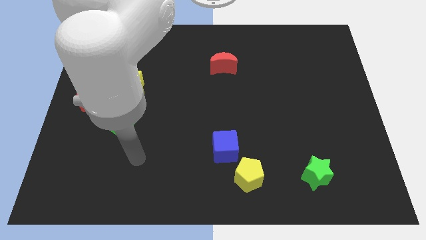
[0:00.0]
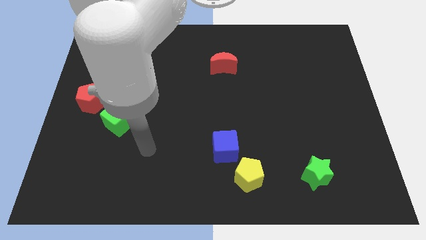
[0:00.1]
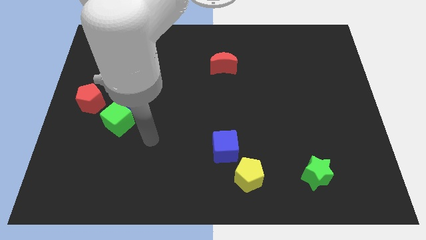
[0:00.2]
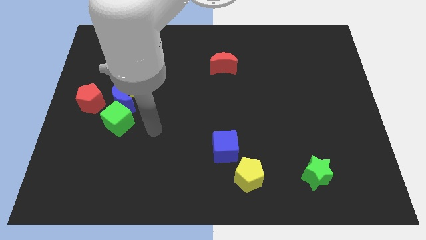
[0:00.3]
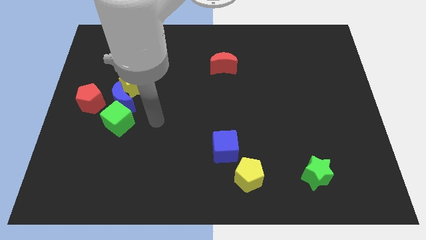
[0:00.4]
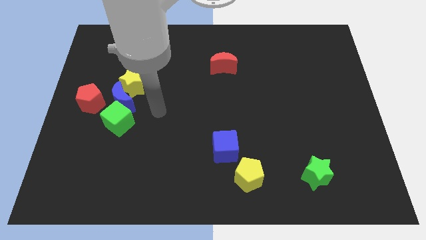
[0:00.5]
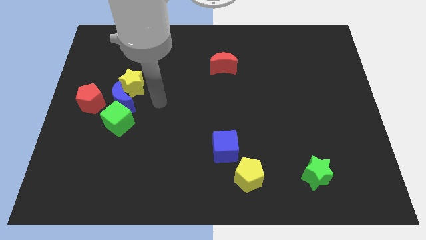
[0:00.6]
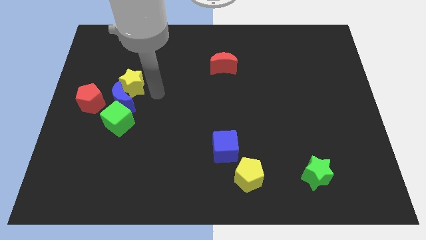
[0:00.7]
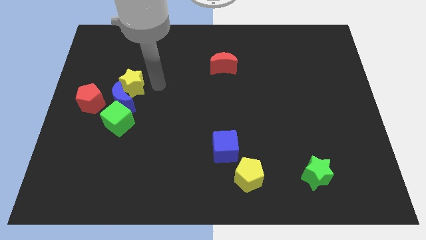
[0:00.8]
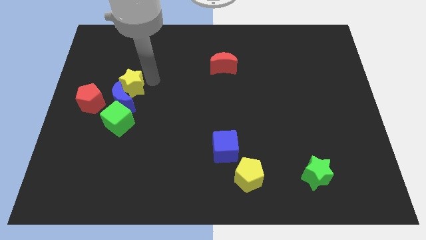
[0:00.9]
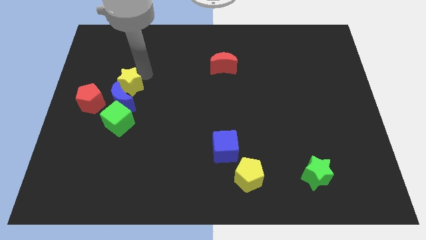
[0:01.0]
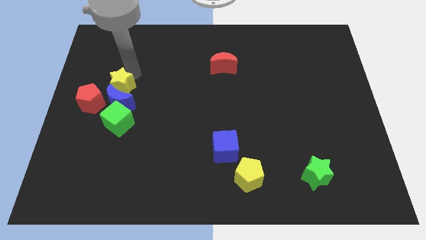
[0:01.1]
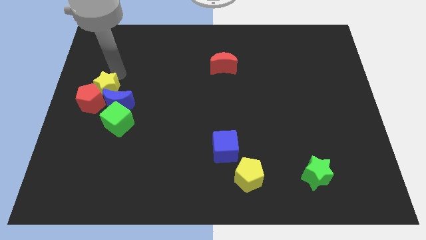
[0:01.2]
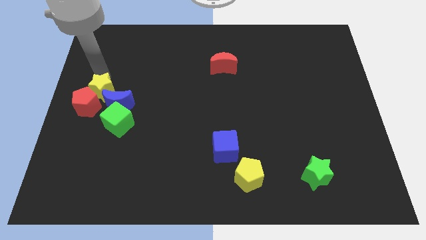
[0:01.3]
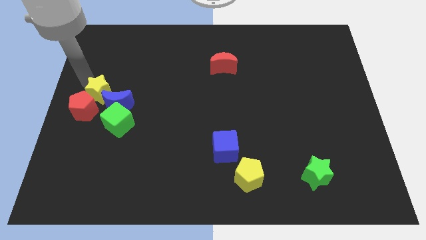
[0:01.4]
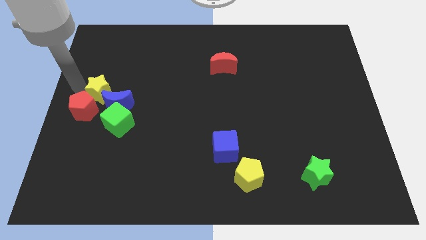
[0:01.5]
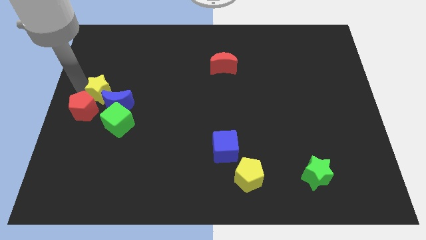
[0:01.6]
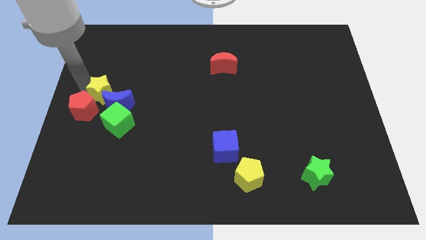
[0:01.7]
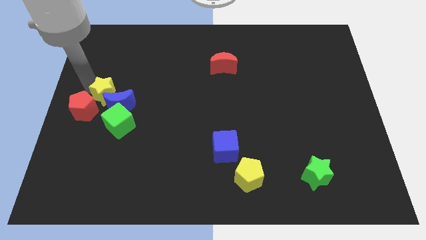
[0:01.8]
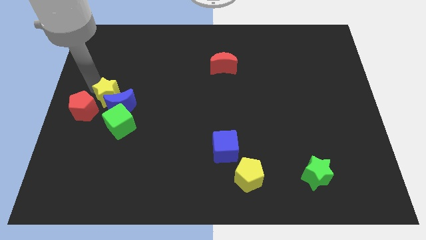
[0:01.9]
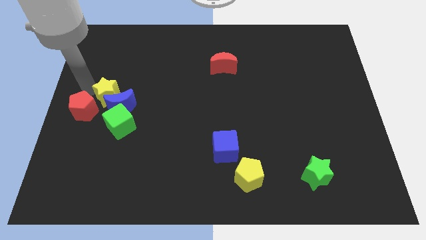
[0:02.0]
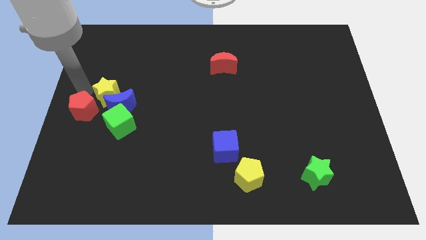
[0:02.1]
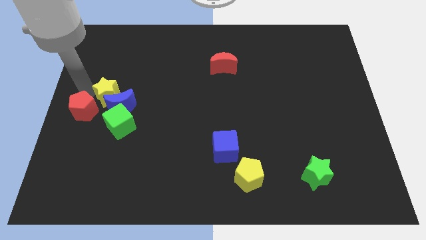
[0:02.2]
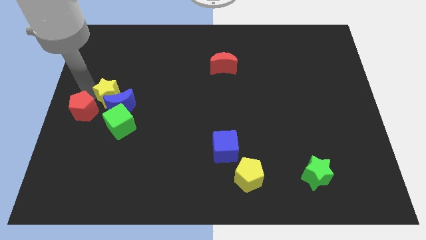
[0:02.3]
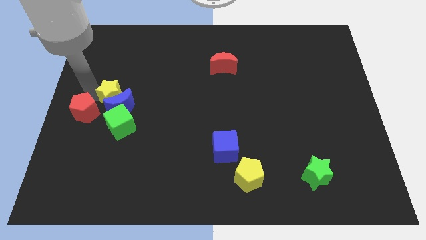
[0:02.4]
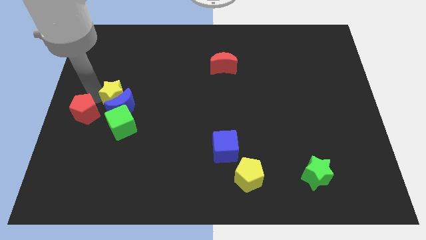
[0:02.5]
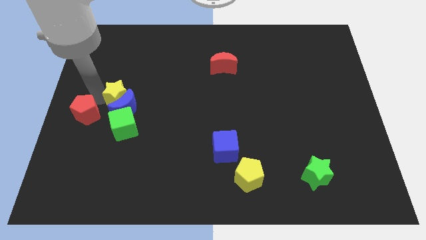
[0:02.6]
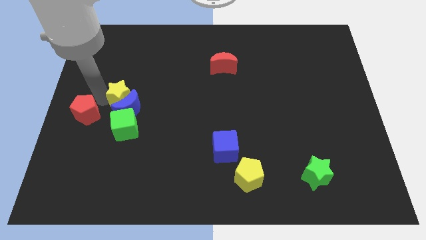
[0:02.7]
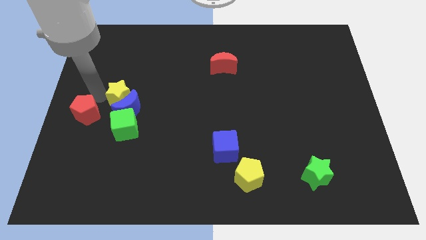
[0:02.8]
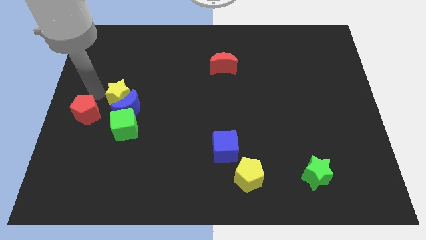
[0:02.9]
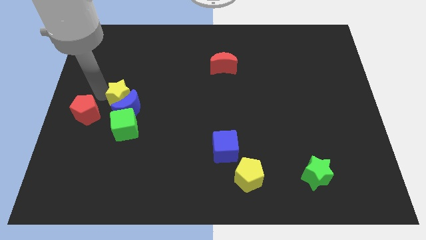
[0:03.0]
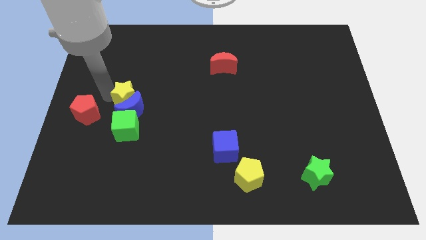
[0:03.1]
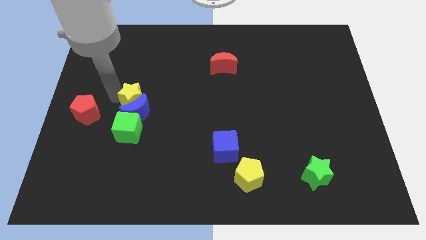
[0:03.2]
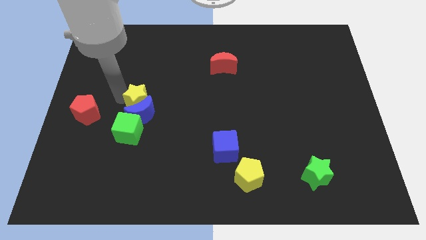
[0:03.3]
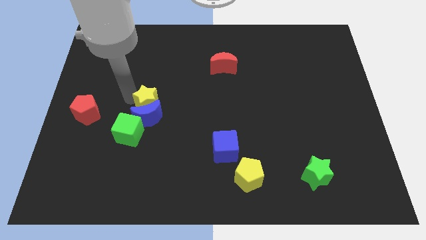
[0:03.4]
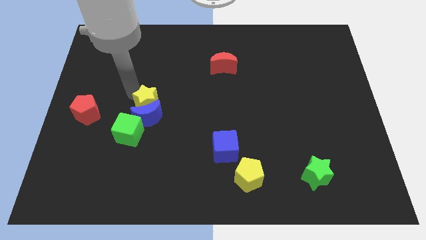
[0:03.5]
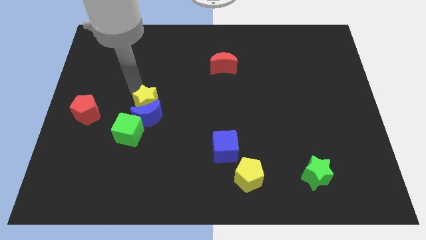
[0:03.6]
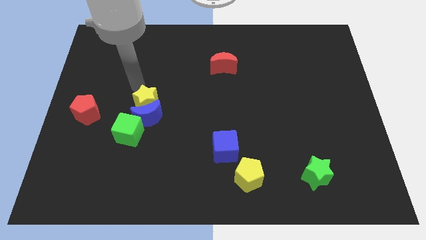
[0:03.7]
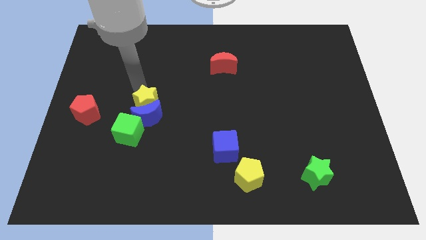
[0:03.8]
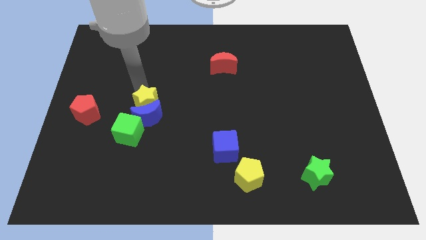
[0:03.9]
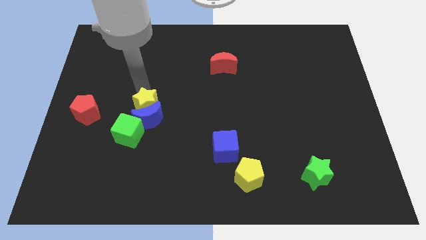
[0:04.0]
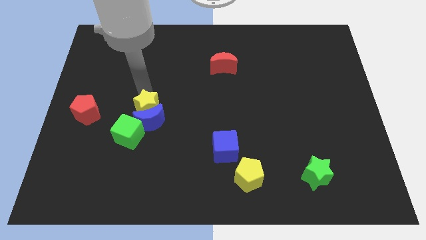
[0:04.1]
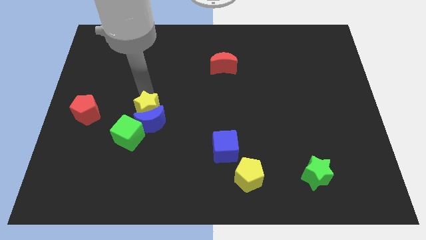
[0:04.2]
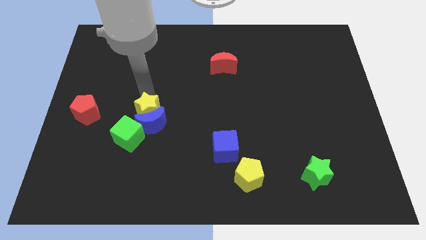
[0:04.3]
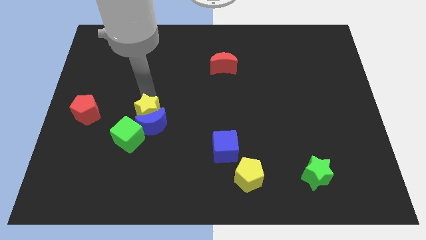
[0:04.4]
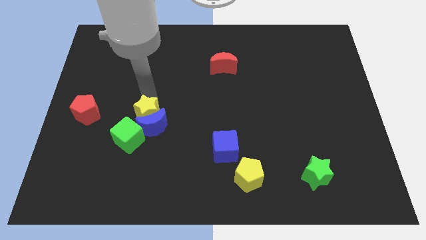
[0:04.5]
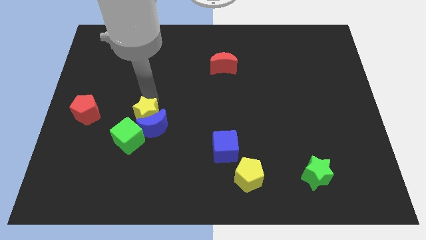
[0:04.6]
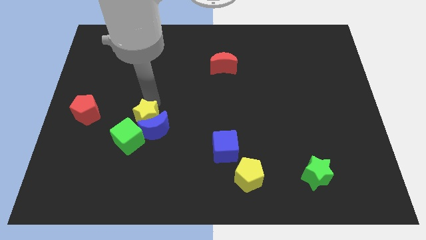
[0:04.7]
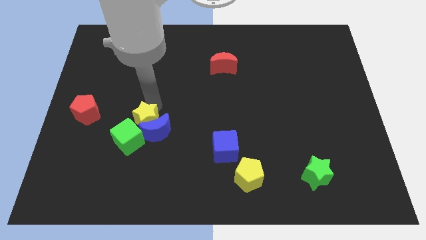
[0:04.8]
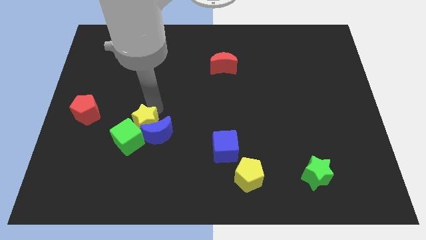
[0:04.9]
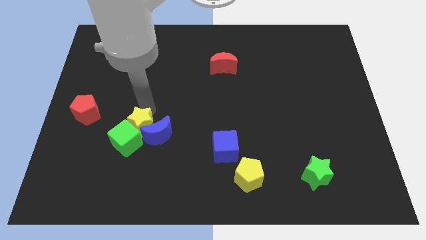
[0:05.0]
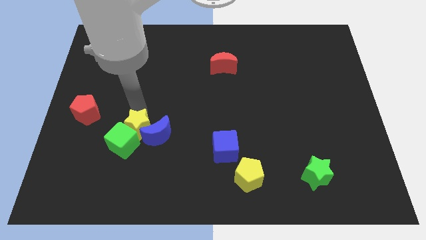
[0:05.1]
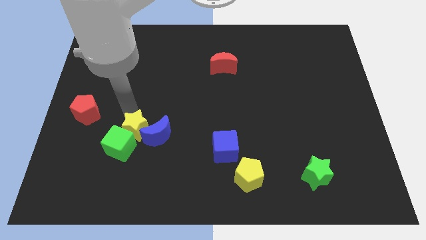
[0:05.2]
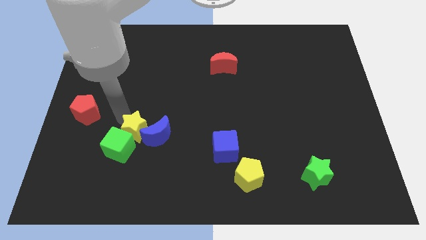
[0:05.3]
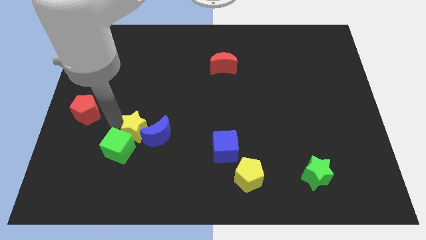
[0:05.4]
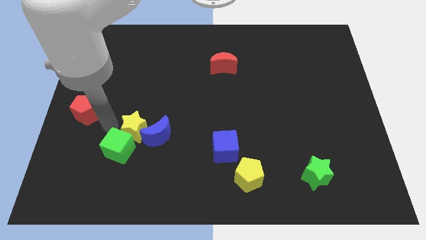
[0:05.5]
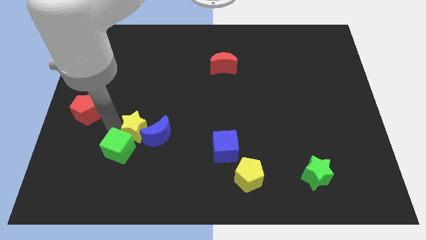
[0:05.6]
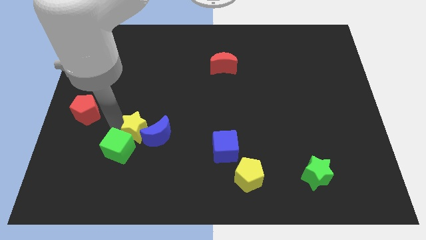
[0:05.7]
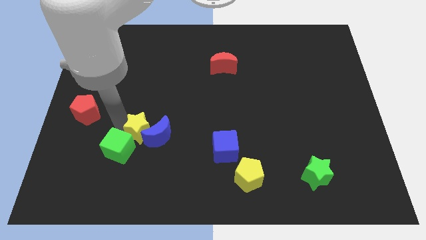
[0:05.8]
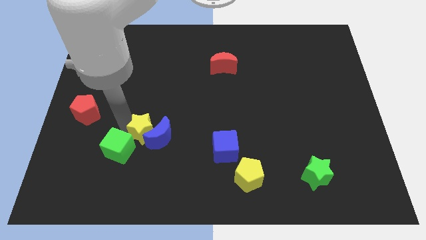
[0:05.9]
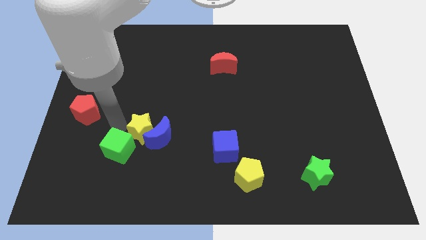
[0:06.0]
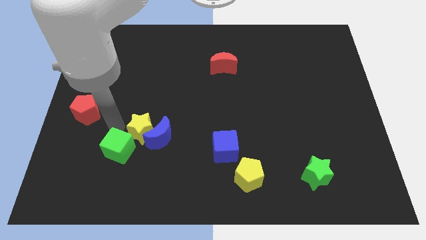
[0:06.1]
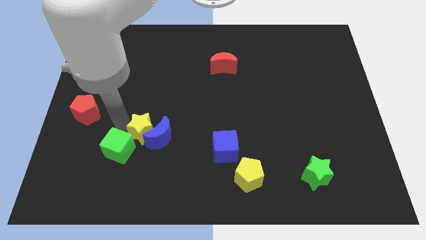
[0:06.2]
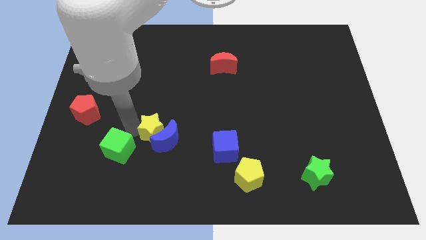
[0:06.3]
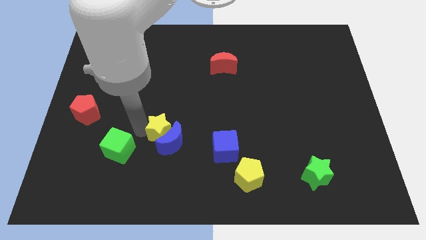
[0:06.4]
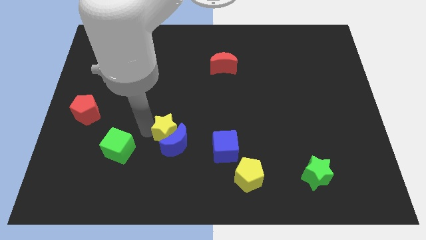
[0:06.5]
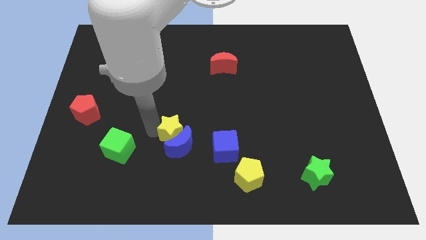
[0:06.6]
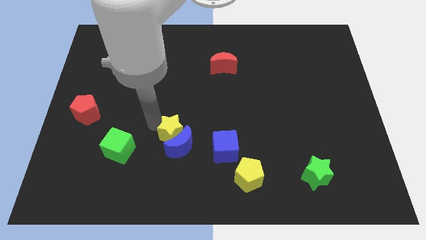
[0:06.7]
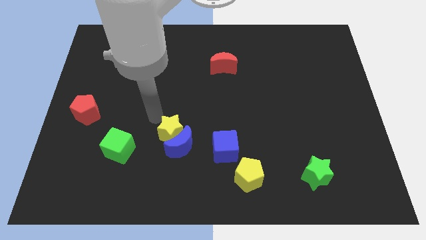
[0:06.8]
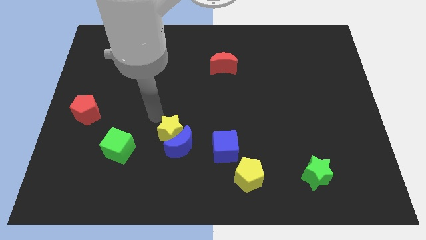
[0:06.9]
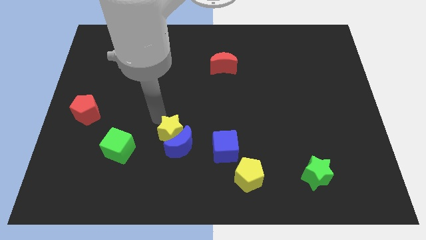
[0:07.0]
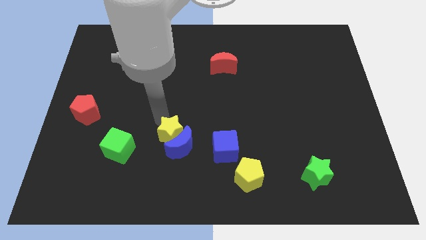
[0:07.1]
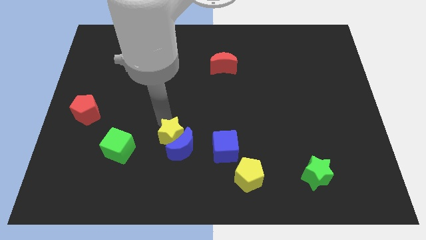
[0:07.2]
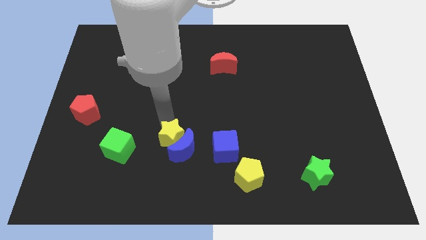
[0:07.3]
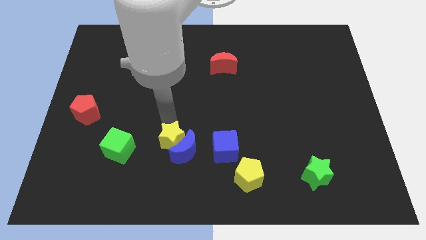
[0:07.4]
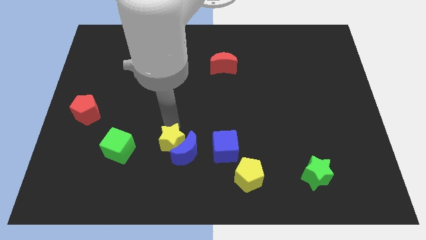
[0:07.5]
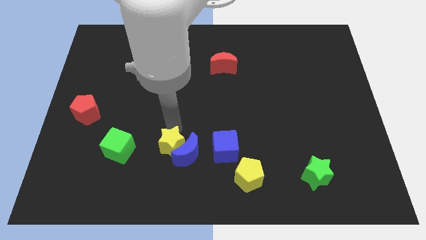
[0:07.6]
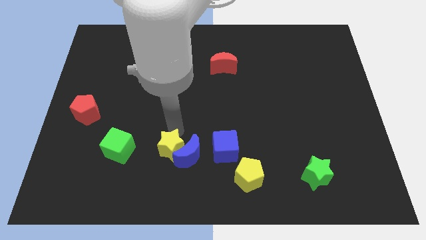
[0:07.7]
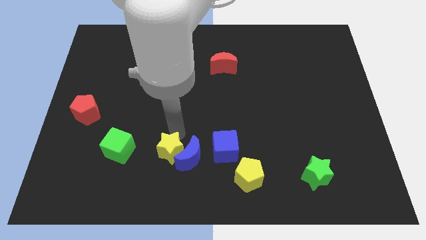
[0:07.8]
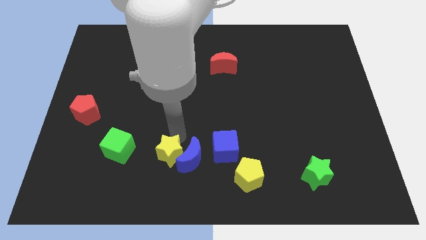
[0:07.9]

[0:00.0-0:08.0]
move the yellow star downwards and right diagonally

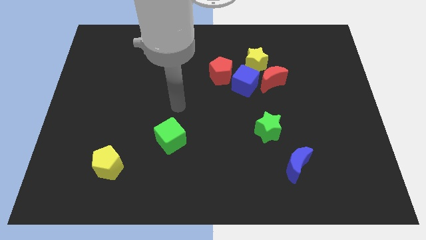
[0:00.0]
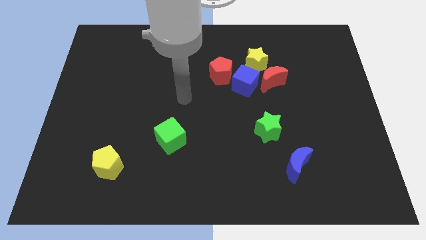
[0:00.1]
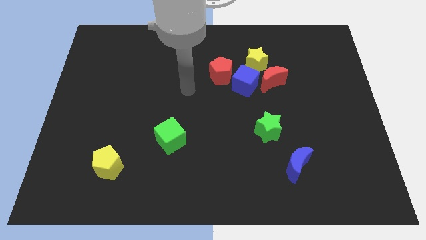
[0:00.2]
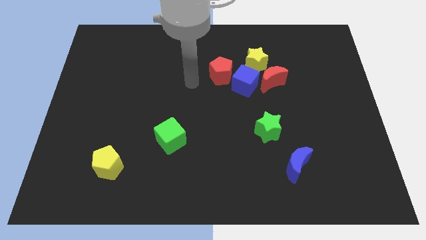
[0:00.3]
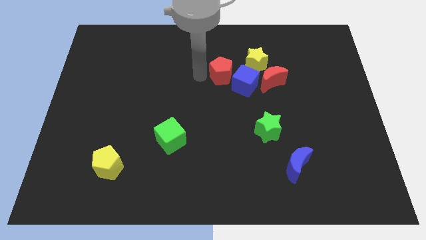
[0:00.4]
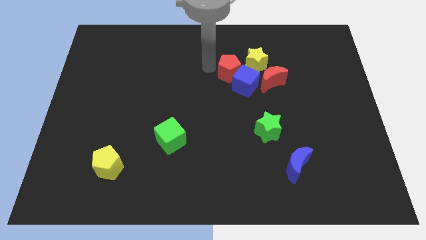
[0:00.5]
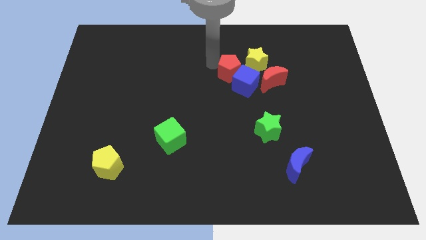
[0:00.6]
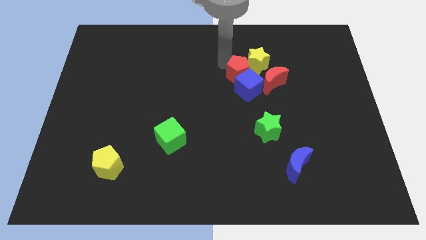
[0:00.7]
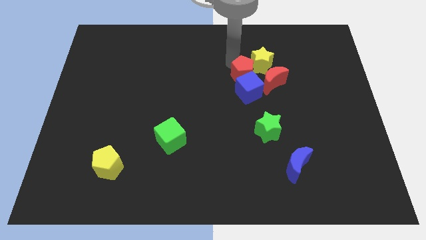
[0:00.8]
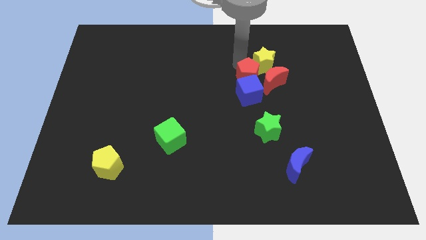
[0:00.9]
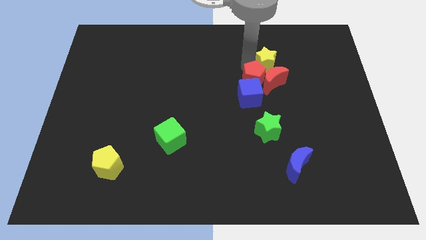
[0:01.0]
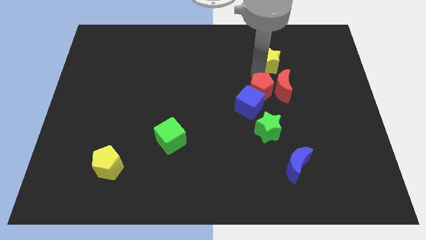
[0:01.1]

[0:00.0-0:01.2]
slide the blue cube downwards a little bit
